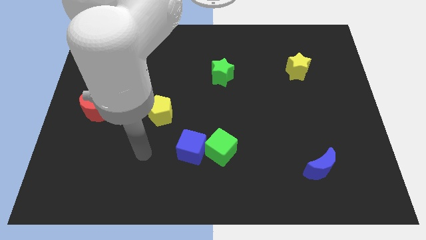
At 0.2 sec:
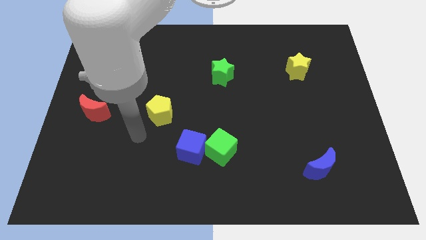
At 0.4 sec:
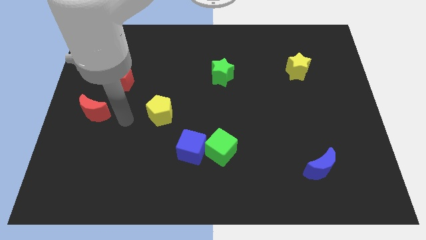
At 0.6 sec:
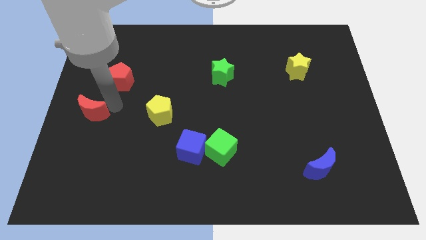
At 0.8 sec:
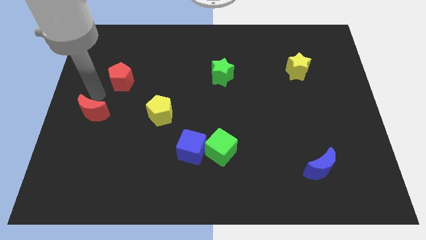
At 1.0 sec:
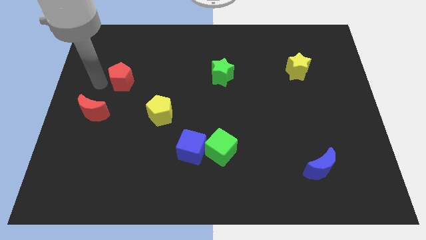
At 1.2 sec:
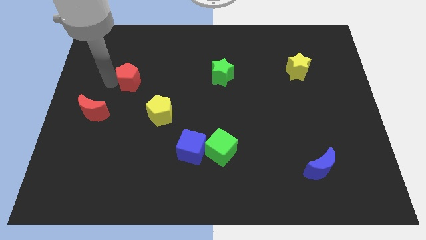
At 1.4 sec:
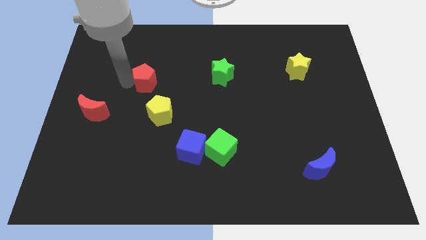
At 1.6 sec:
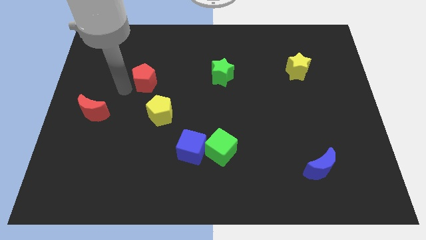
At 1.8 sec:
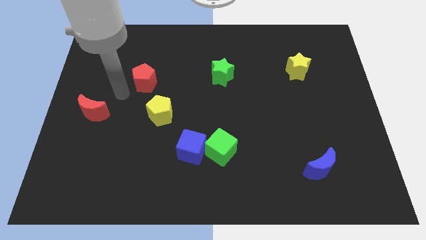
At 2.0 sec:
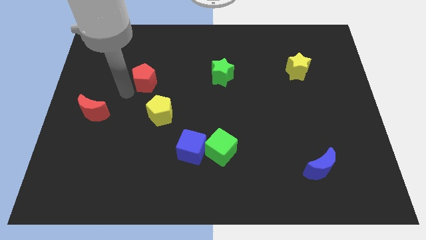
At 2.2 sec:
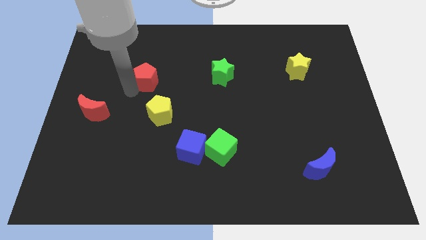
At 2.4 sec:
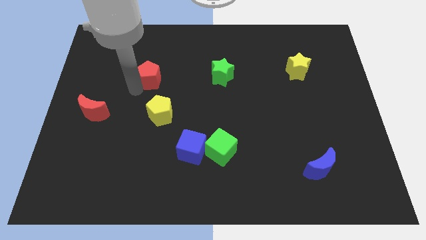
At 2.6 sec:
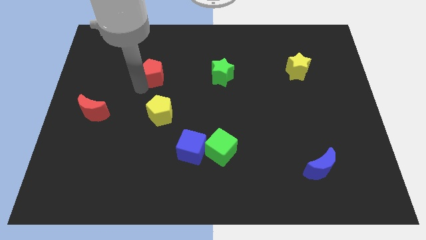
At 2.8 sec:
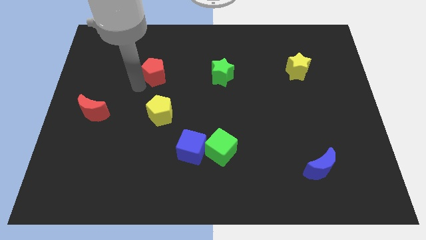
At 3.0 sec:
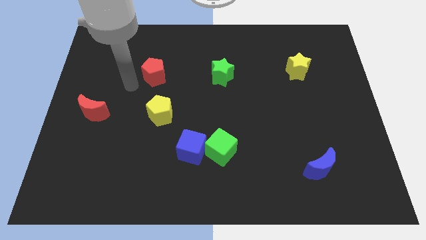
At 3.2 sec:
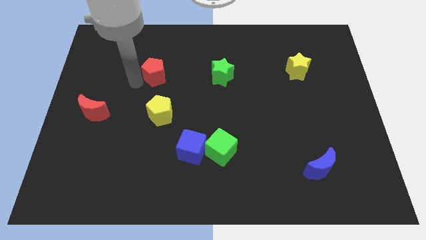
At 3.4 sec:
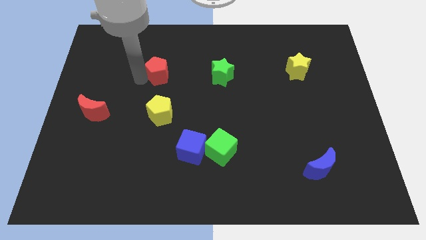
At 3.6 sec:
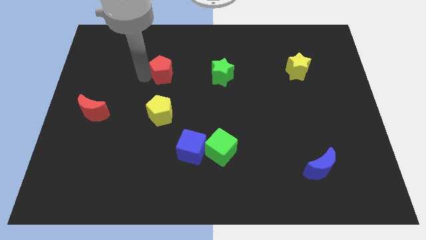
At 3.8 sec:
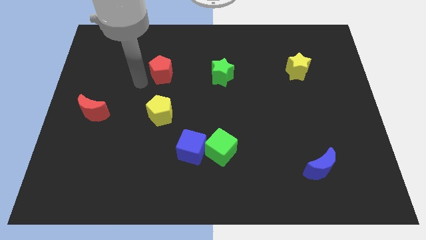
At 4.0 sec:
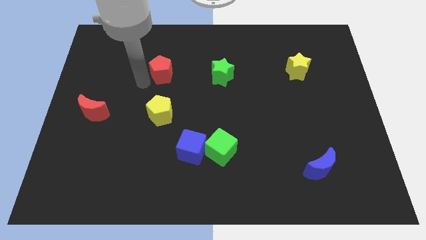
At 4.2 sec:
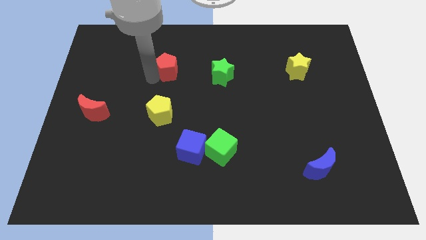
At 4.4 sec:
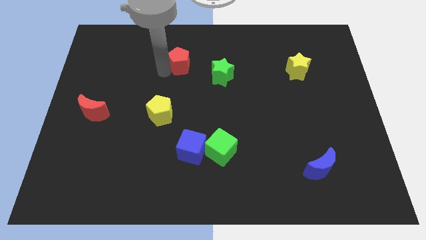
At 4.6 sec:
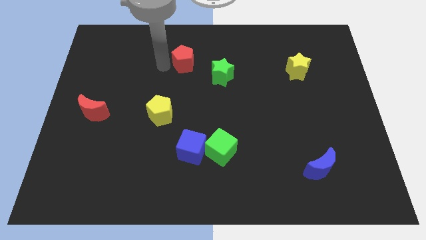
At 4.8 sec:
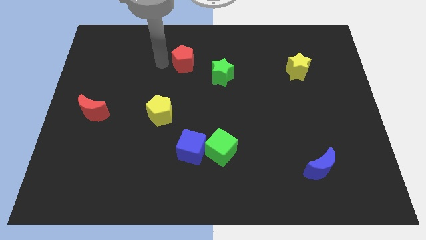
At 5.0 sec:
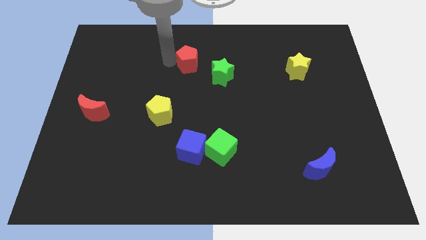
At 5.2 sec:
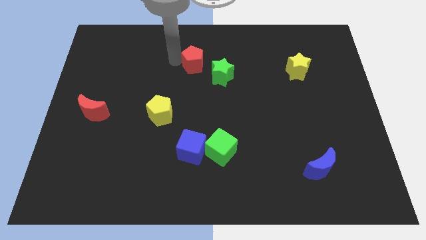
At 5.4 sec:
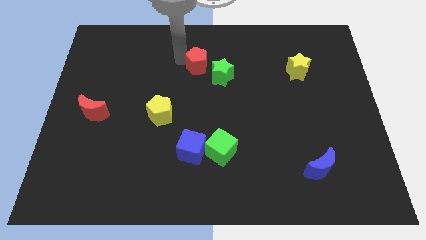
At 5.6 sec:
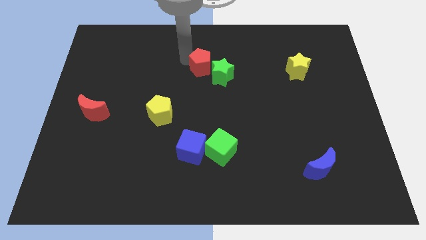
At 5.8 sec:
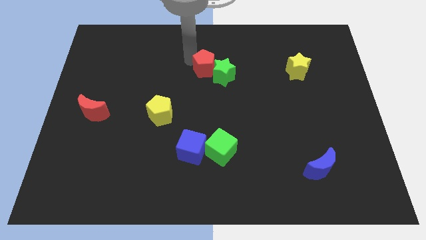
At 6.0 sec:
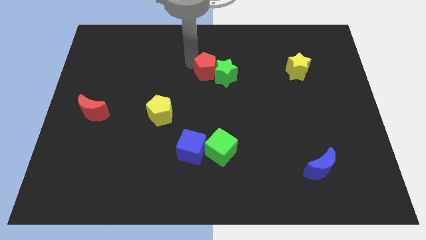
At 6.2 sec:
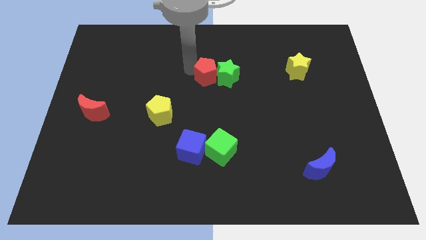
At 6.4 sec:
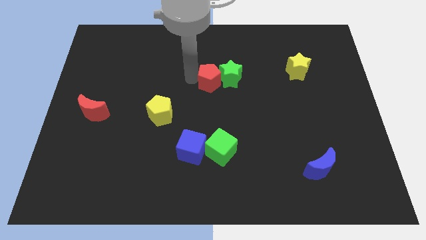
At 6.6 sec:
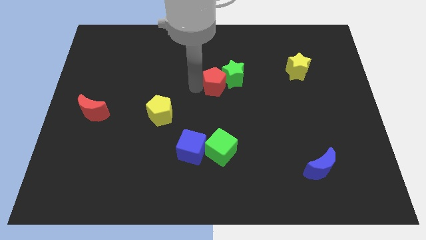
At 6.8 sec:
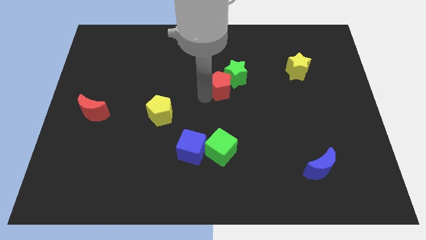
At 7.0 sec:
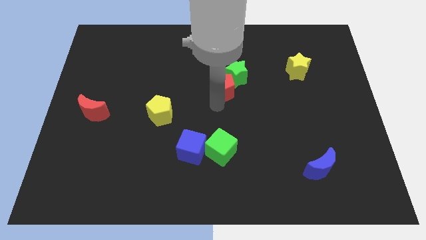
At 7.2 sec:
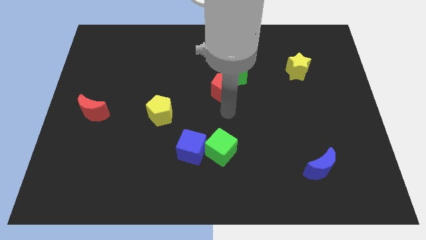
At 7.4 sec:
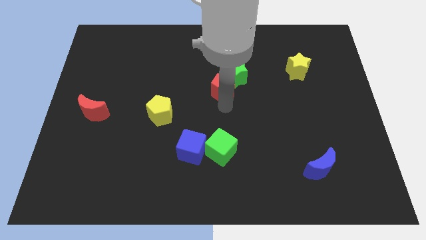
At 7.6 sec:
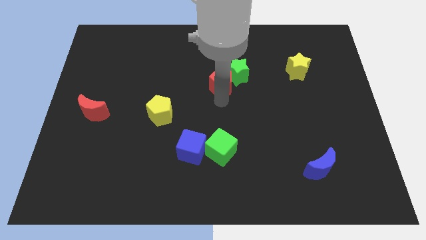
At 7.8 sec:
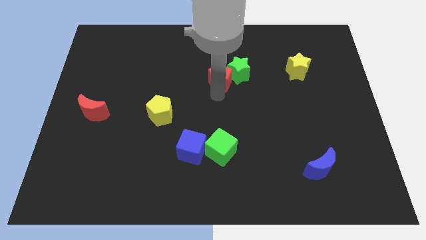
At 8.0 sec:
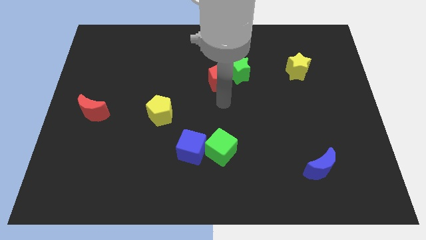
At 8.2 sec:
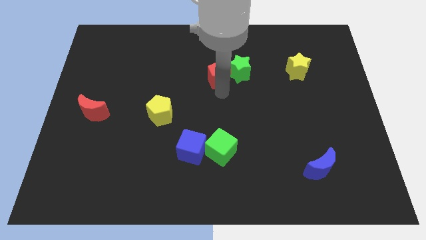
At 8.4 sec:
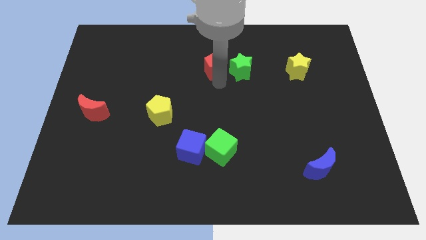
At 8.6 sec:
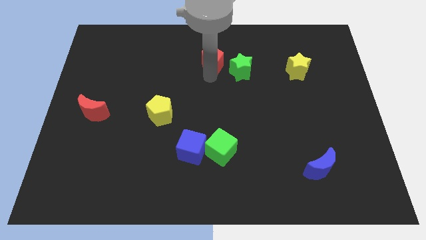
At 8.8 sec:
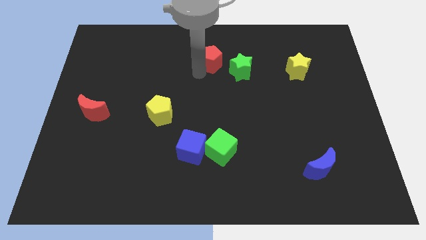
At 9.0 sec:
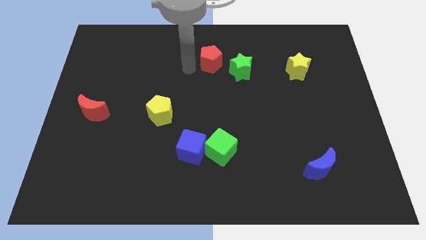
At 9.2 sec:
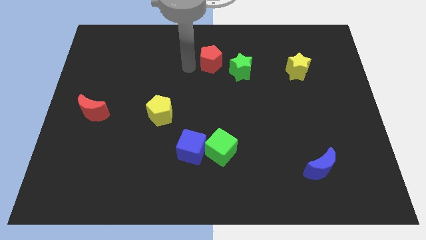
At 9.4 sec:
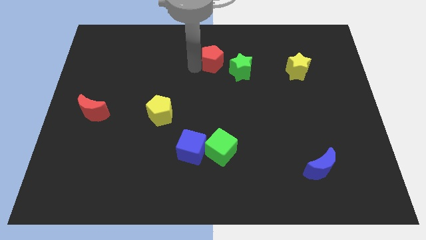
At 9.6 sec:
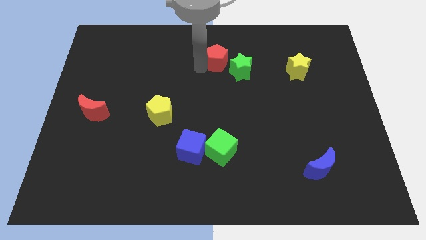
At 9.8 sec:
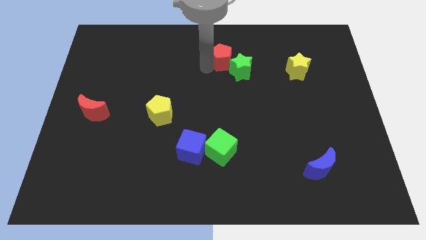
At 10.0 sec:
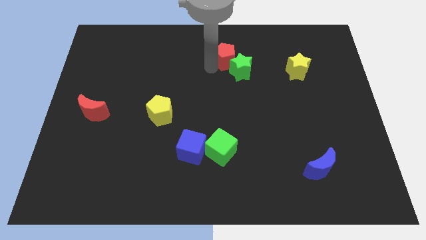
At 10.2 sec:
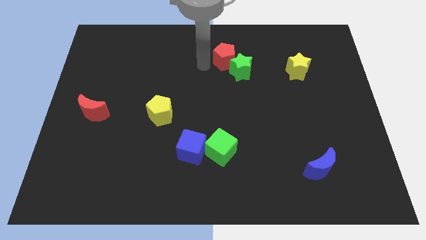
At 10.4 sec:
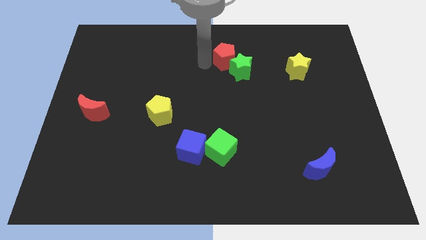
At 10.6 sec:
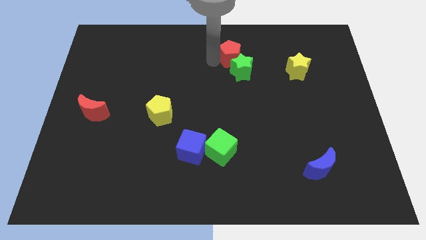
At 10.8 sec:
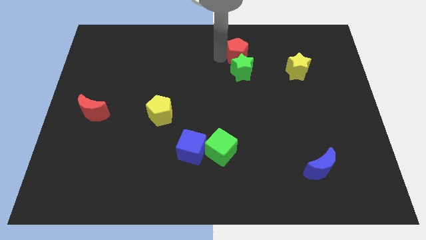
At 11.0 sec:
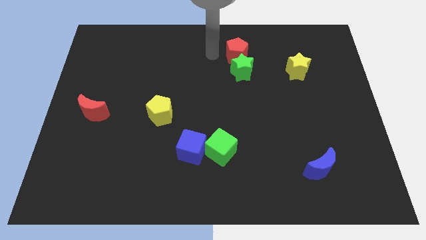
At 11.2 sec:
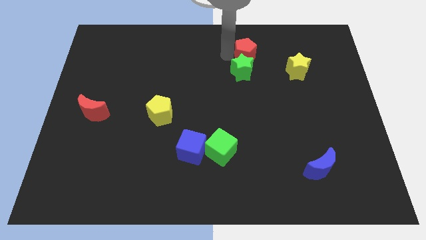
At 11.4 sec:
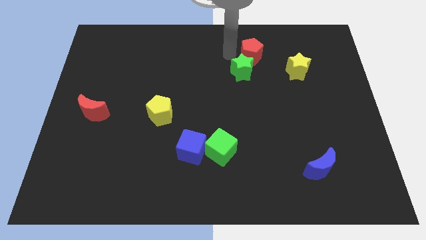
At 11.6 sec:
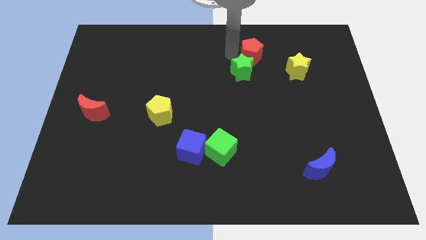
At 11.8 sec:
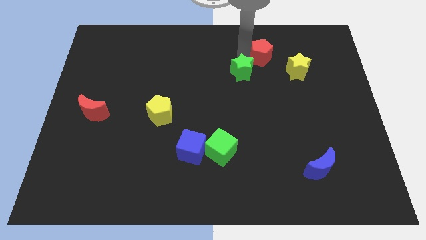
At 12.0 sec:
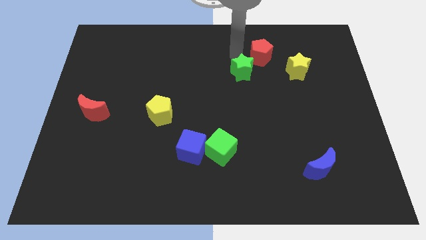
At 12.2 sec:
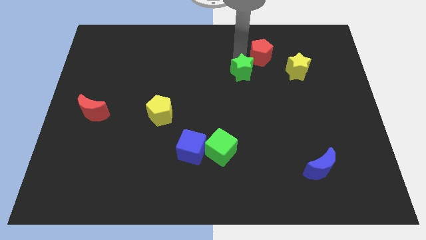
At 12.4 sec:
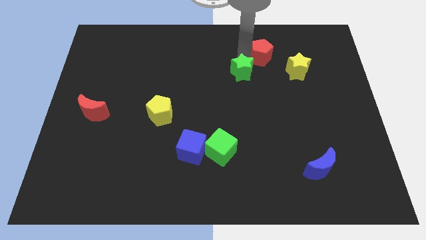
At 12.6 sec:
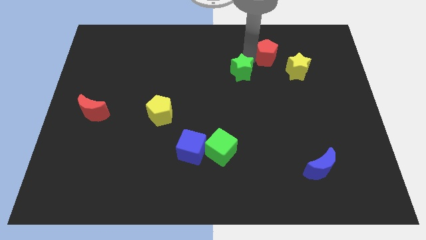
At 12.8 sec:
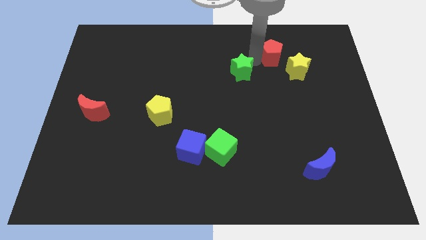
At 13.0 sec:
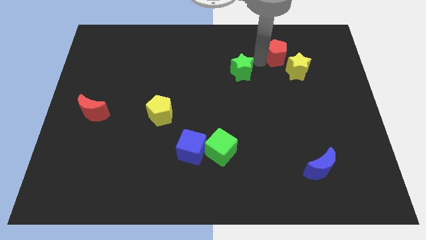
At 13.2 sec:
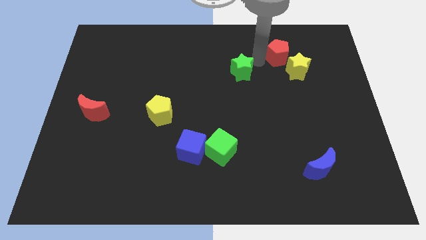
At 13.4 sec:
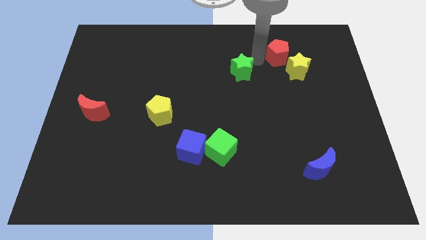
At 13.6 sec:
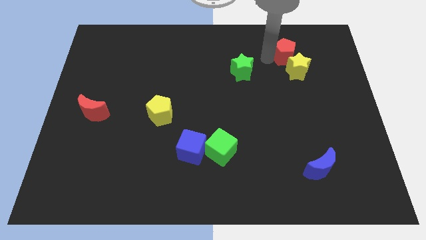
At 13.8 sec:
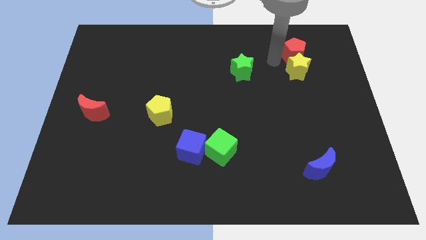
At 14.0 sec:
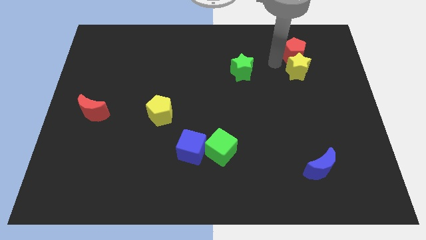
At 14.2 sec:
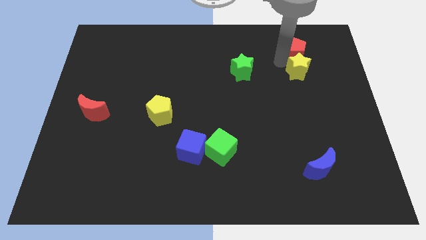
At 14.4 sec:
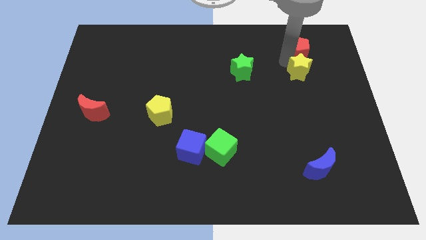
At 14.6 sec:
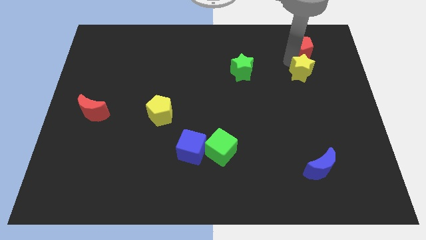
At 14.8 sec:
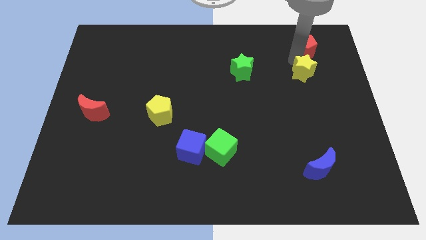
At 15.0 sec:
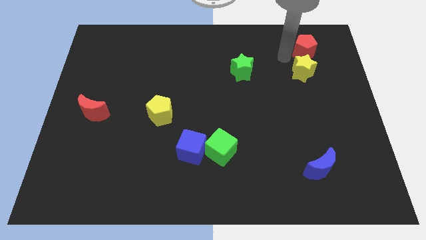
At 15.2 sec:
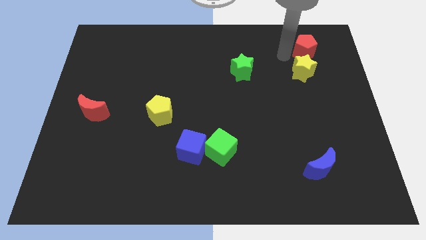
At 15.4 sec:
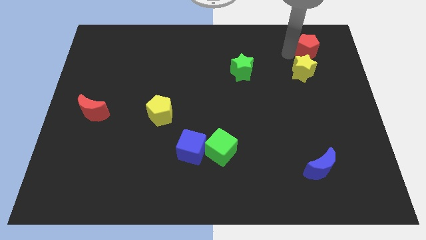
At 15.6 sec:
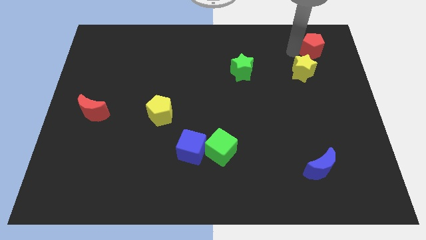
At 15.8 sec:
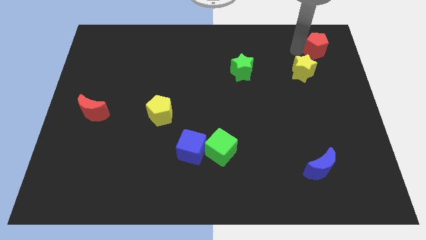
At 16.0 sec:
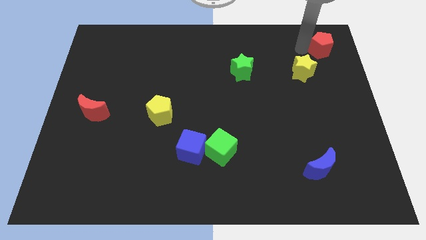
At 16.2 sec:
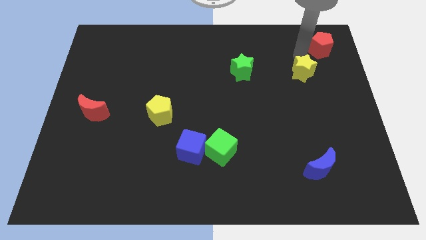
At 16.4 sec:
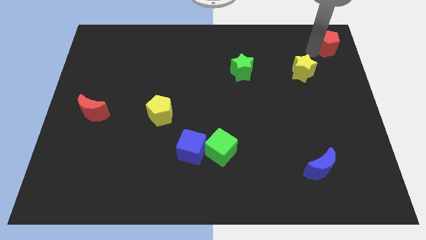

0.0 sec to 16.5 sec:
put the red pentagon to the upper right corner
